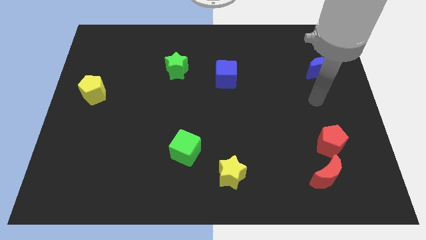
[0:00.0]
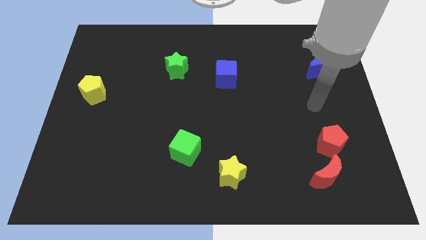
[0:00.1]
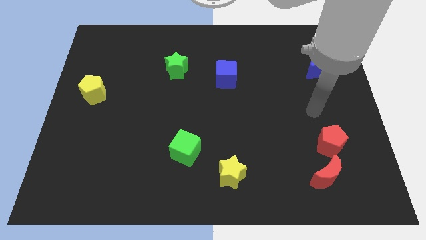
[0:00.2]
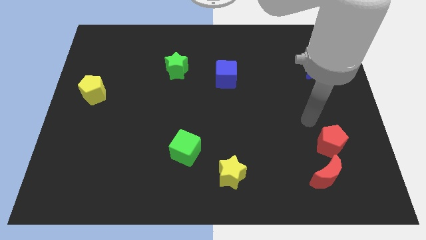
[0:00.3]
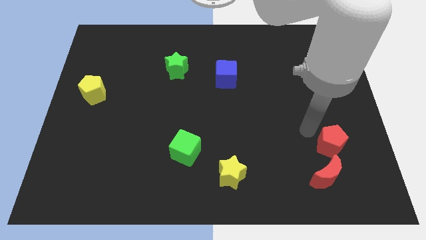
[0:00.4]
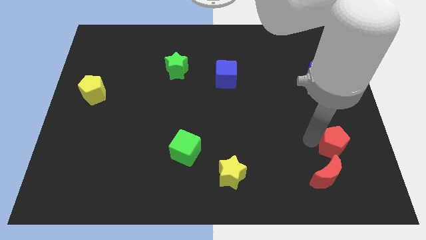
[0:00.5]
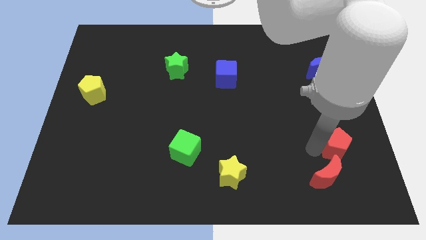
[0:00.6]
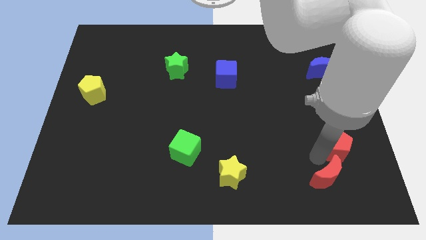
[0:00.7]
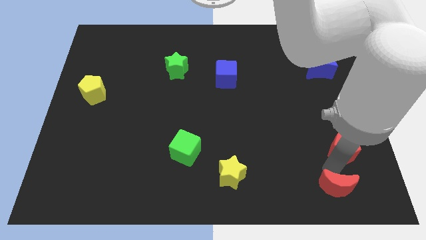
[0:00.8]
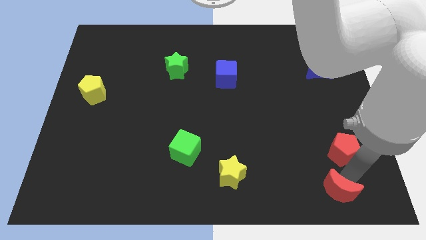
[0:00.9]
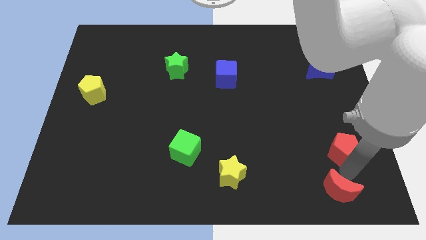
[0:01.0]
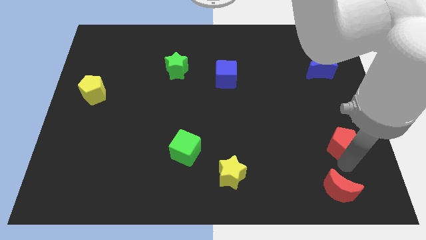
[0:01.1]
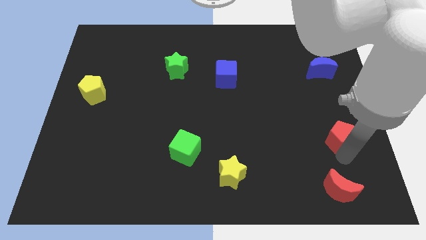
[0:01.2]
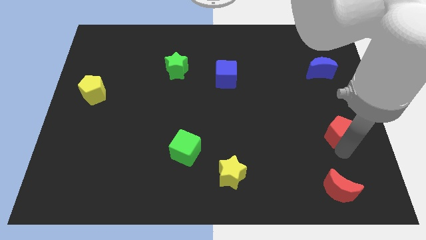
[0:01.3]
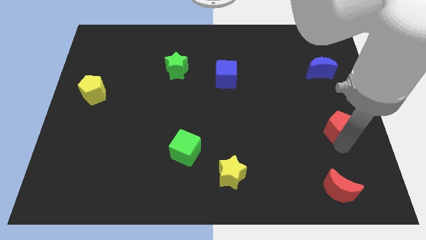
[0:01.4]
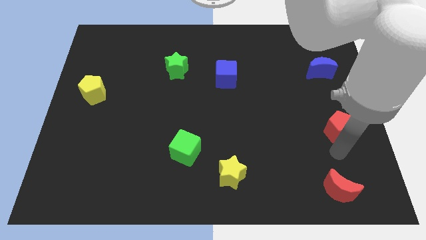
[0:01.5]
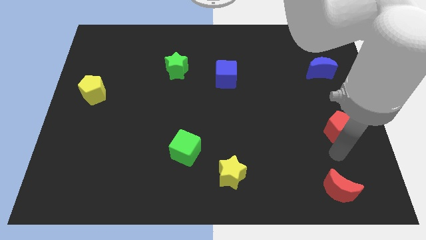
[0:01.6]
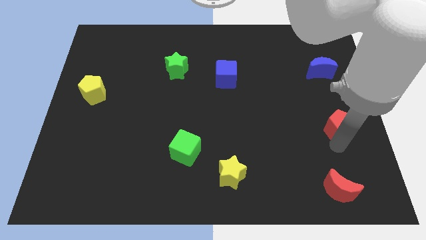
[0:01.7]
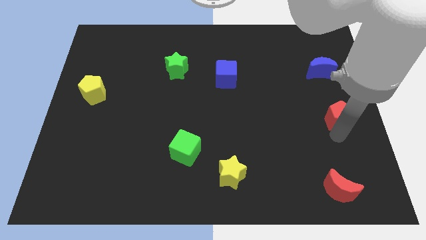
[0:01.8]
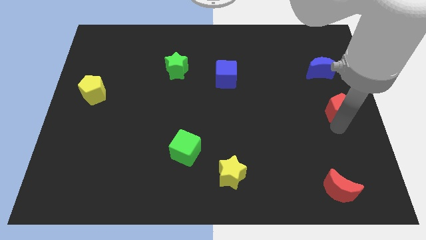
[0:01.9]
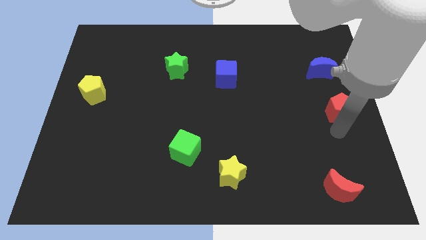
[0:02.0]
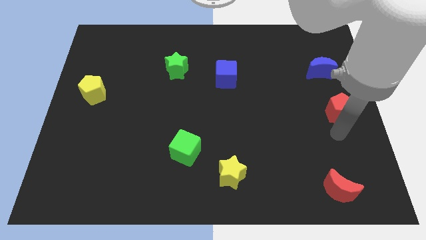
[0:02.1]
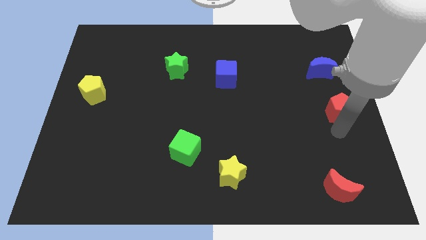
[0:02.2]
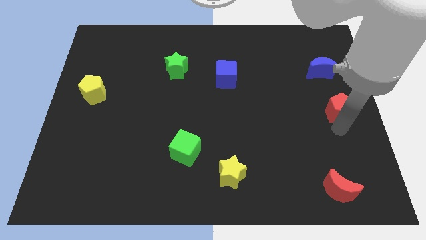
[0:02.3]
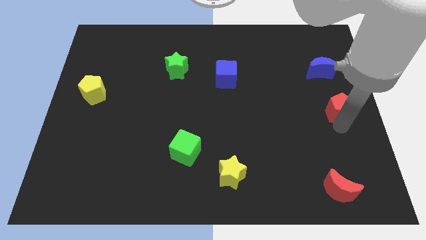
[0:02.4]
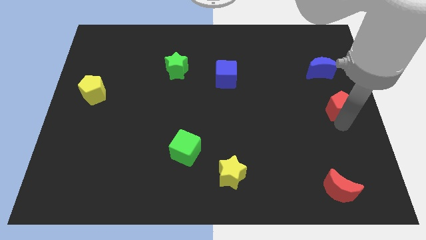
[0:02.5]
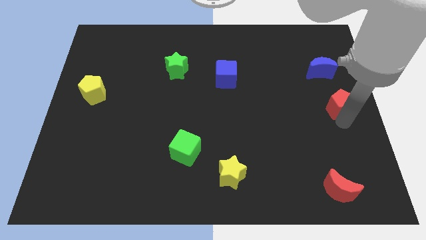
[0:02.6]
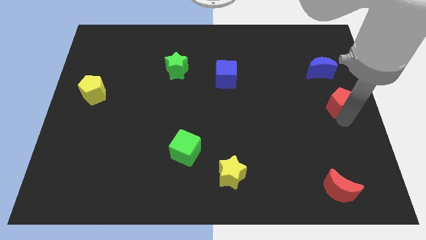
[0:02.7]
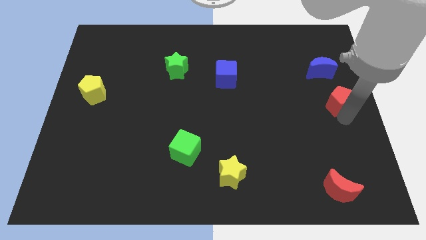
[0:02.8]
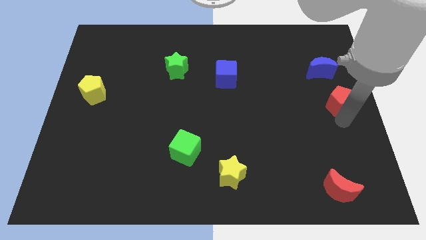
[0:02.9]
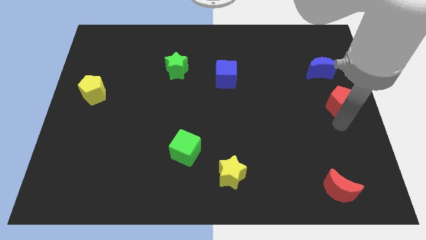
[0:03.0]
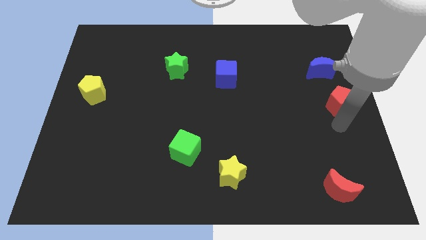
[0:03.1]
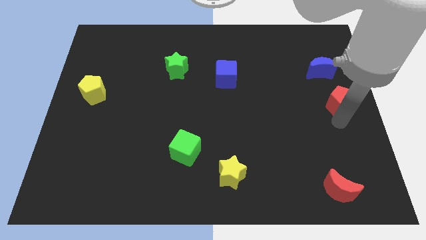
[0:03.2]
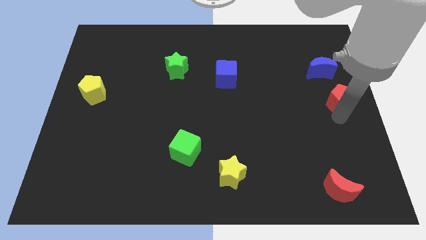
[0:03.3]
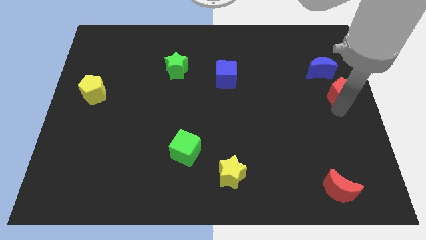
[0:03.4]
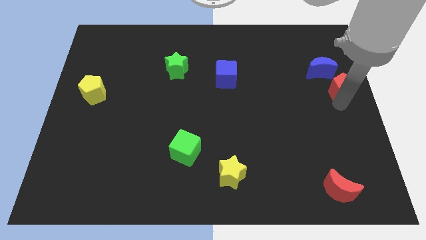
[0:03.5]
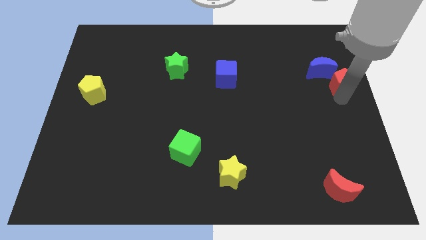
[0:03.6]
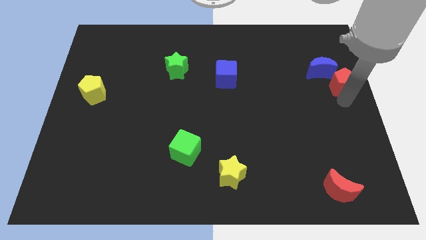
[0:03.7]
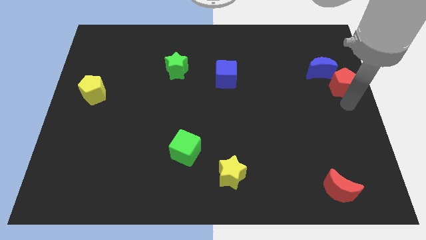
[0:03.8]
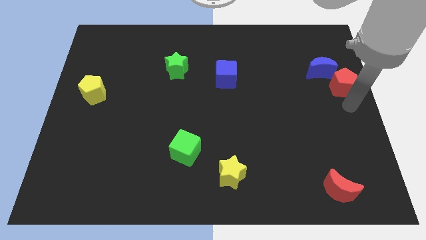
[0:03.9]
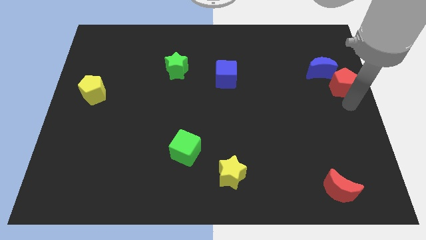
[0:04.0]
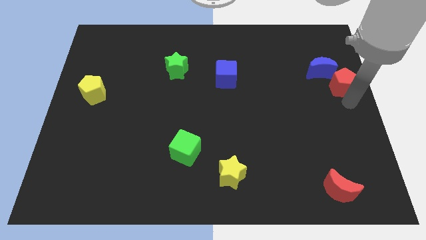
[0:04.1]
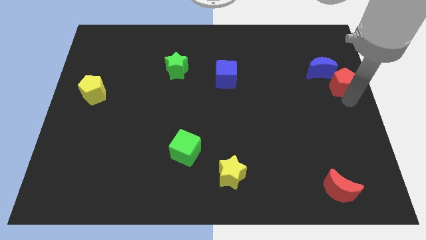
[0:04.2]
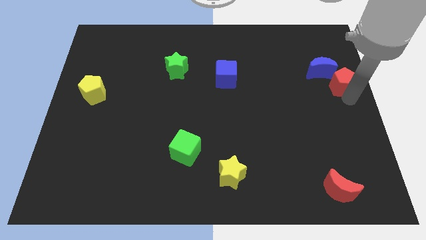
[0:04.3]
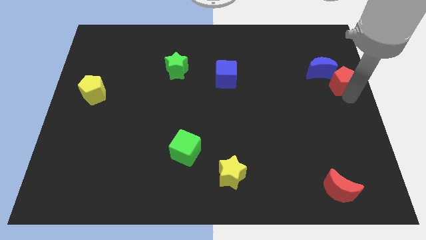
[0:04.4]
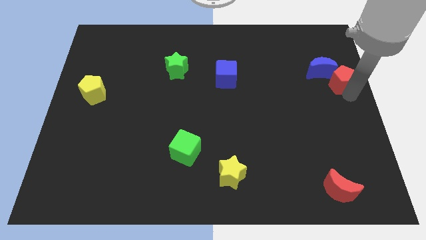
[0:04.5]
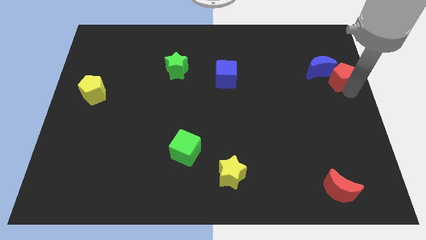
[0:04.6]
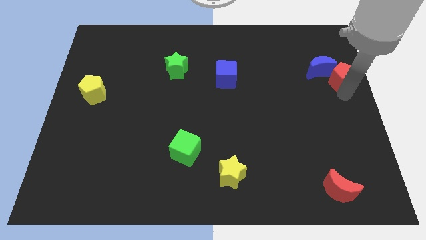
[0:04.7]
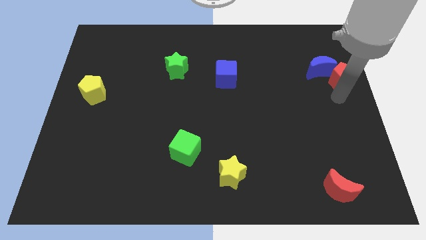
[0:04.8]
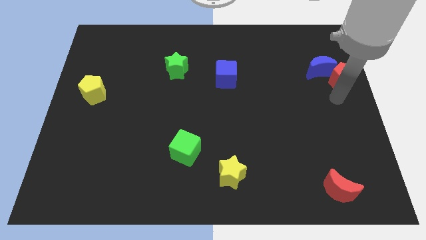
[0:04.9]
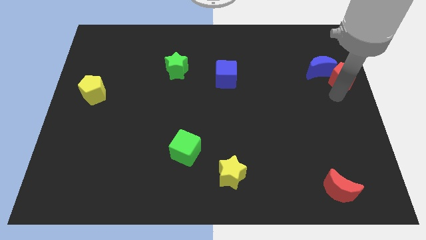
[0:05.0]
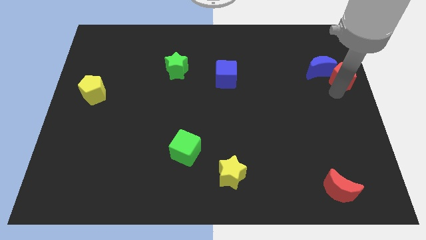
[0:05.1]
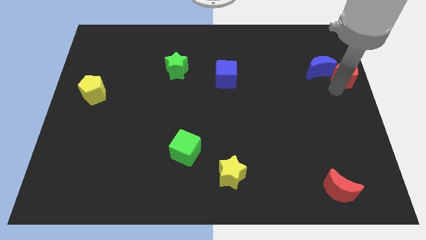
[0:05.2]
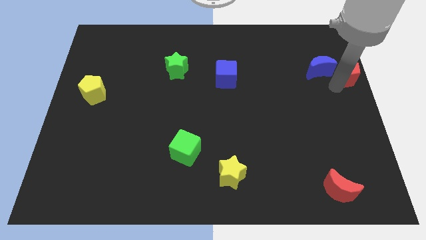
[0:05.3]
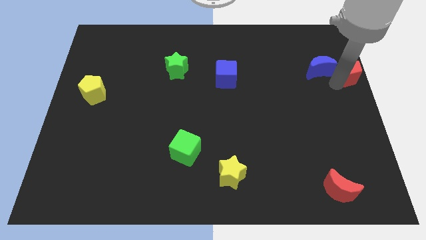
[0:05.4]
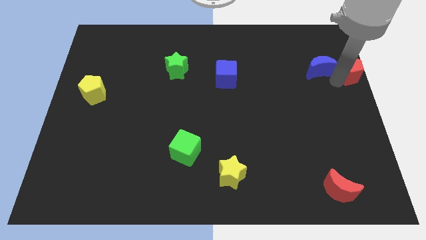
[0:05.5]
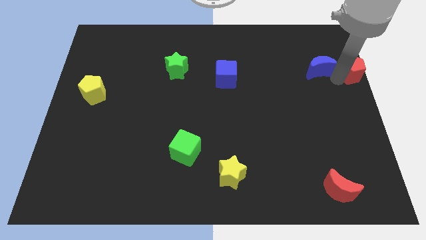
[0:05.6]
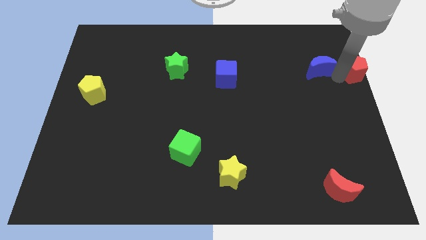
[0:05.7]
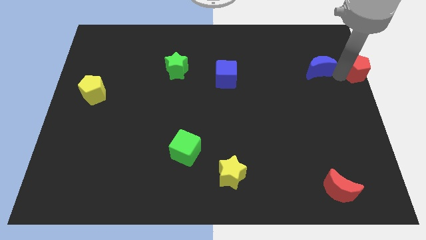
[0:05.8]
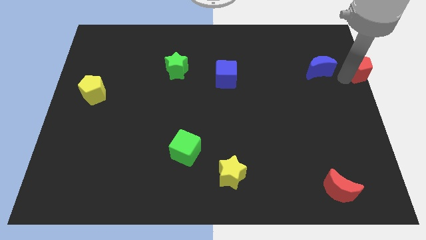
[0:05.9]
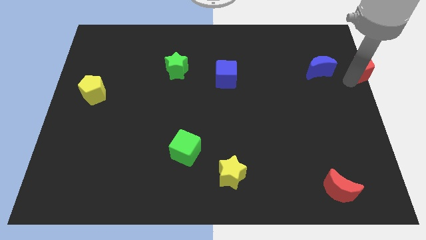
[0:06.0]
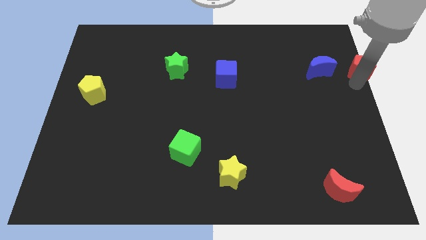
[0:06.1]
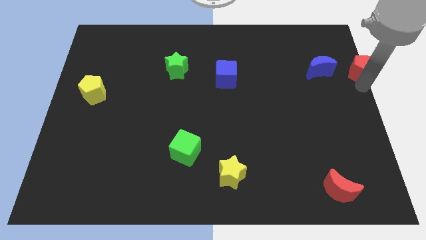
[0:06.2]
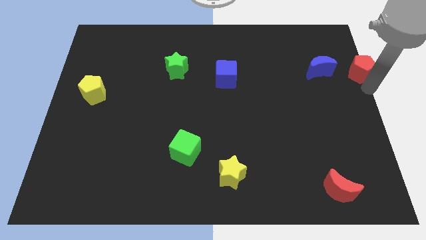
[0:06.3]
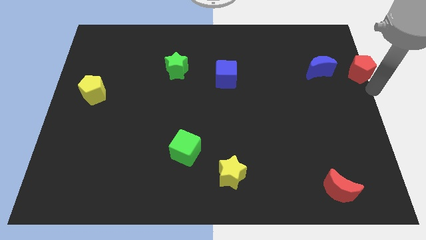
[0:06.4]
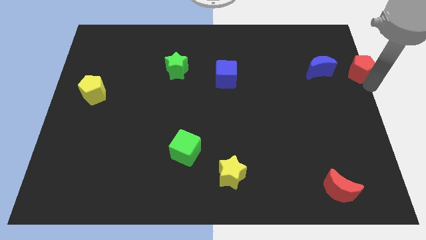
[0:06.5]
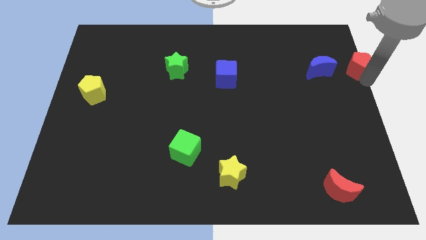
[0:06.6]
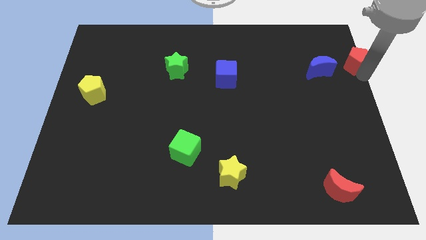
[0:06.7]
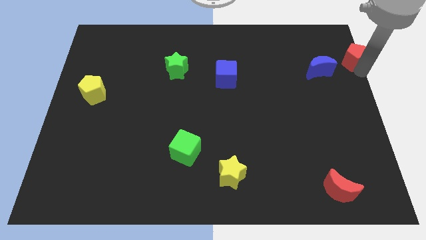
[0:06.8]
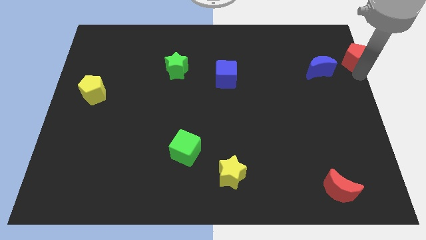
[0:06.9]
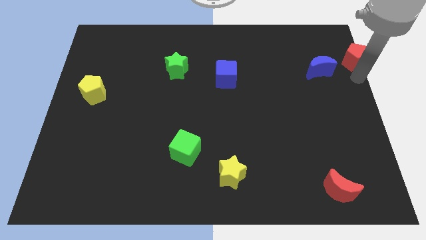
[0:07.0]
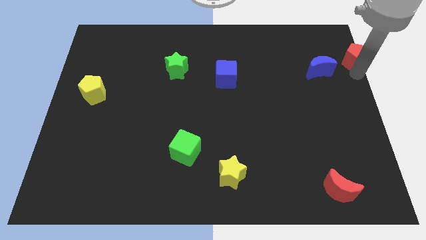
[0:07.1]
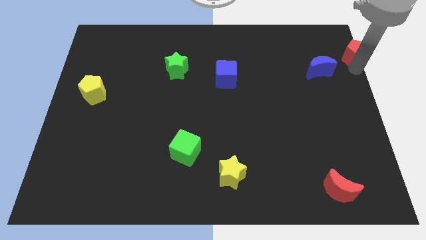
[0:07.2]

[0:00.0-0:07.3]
move the red pentagon to the upper right corner
